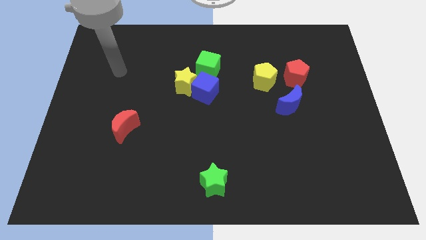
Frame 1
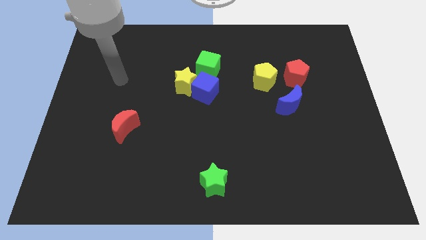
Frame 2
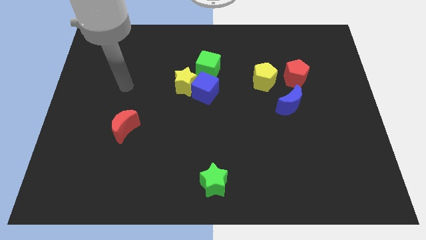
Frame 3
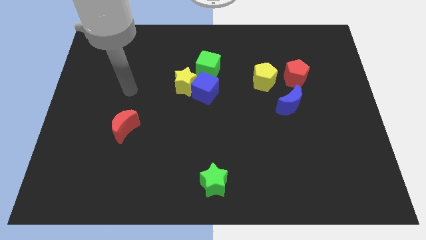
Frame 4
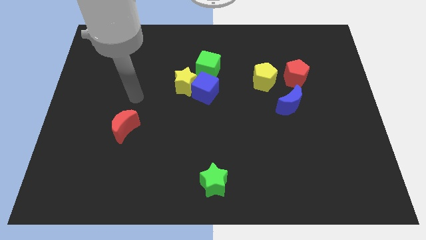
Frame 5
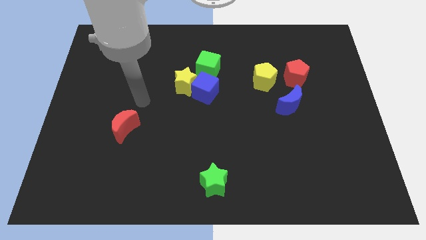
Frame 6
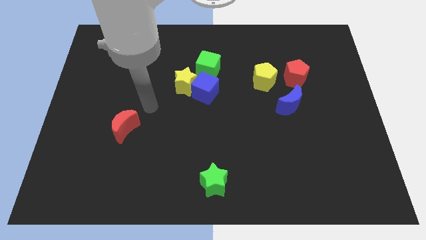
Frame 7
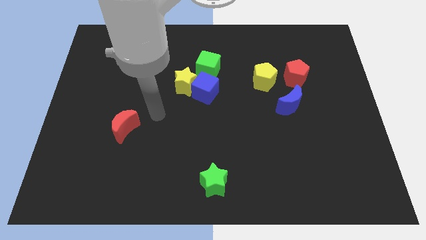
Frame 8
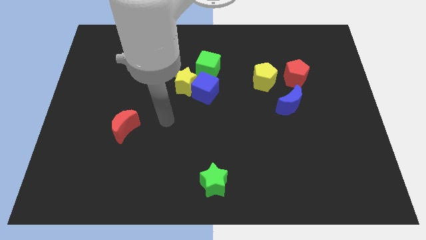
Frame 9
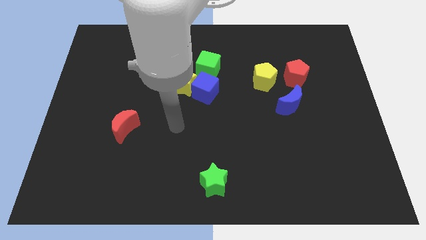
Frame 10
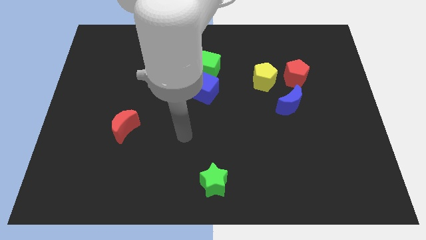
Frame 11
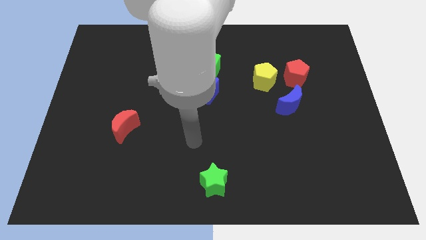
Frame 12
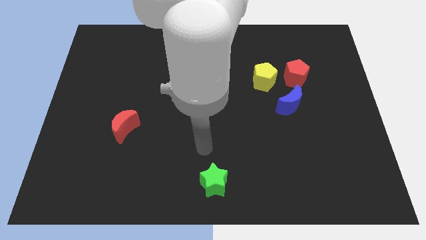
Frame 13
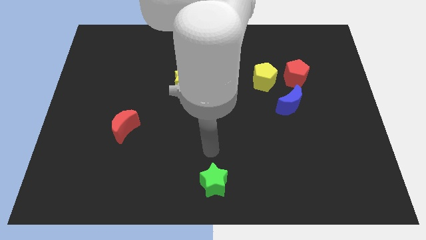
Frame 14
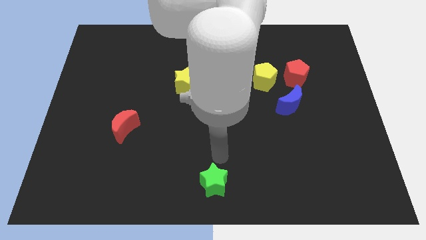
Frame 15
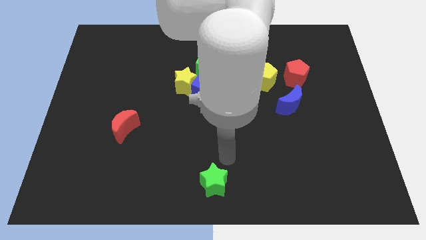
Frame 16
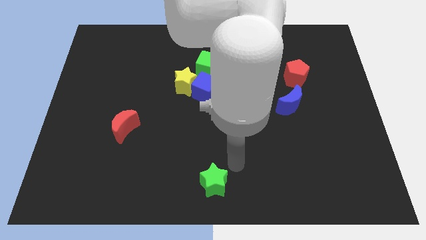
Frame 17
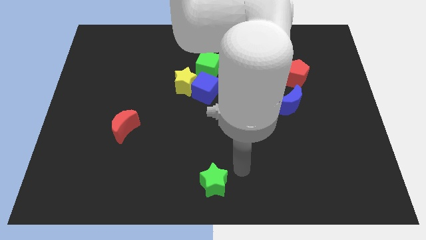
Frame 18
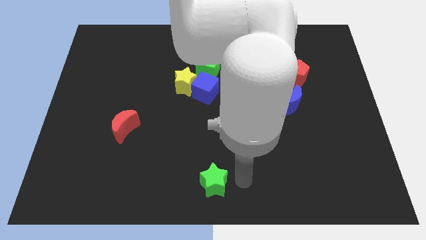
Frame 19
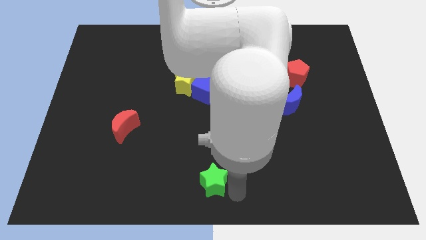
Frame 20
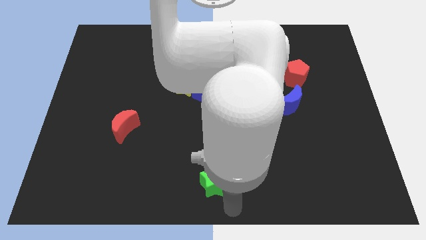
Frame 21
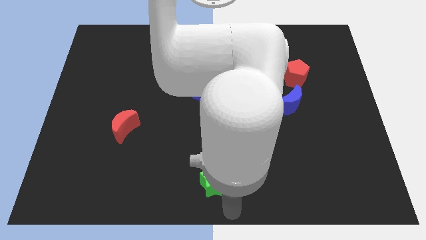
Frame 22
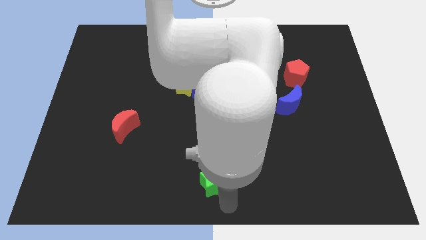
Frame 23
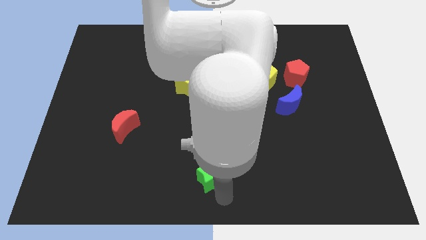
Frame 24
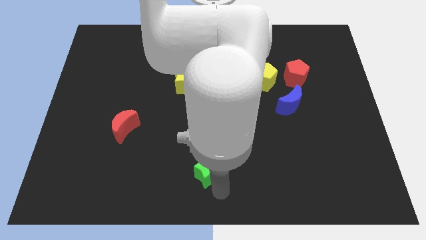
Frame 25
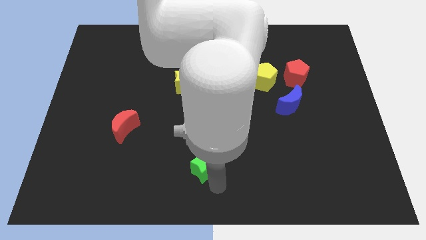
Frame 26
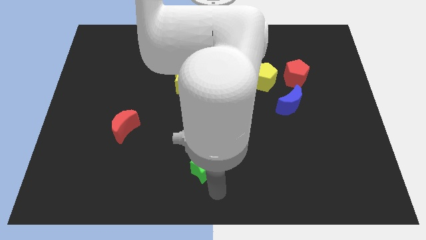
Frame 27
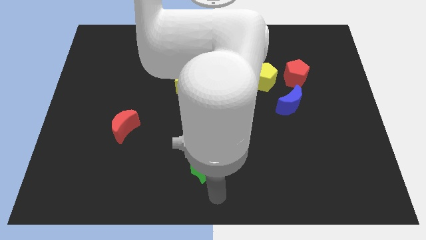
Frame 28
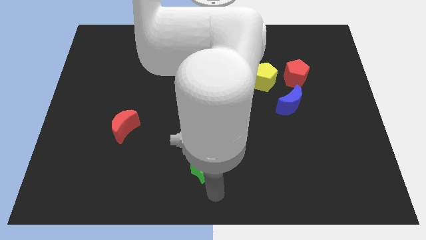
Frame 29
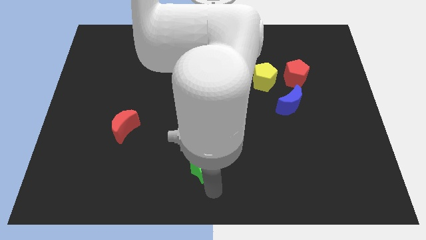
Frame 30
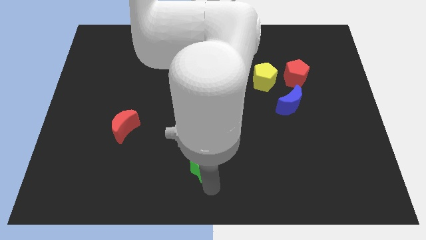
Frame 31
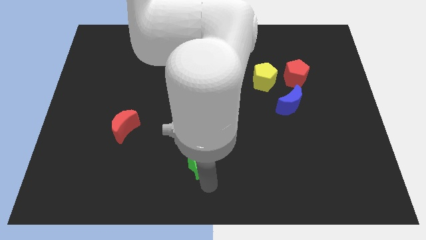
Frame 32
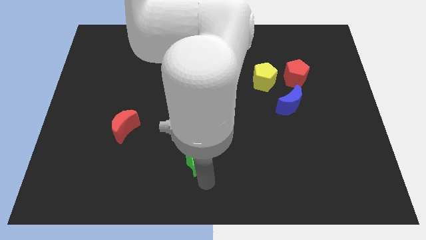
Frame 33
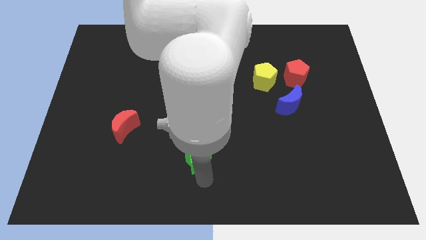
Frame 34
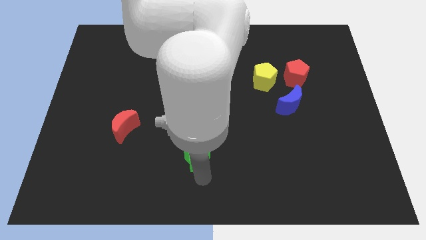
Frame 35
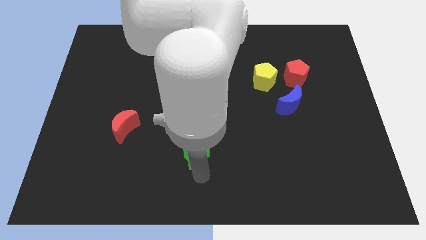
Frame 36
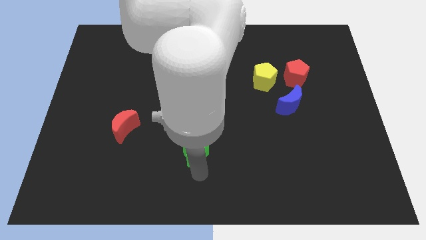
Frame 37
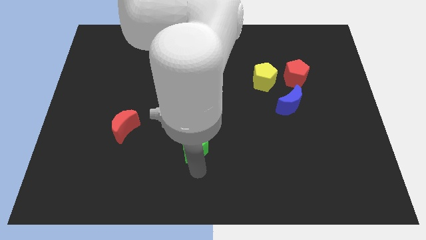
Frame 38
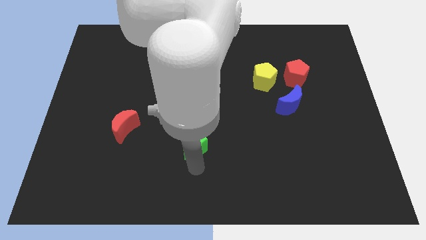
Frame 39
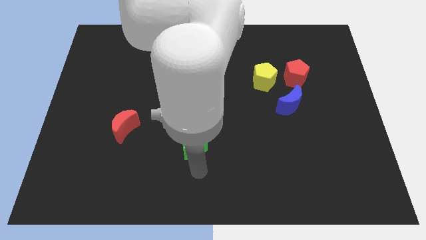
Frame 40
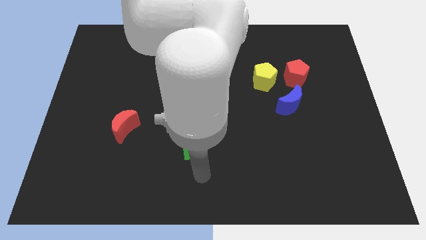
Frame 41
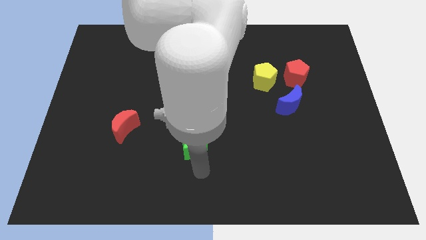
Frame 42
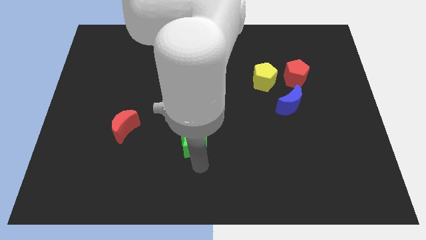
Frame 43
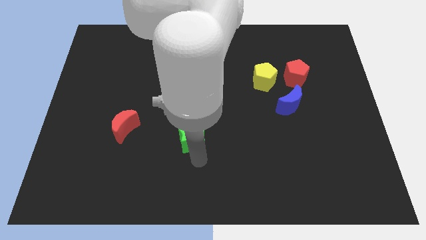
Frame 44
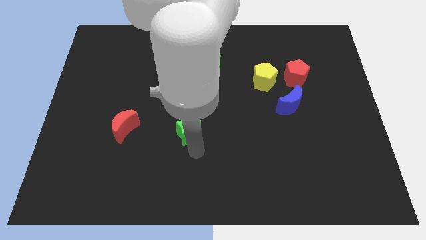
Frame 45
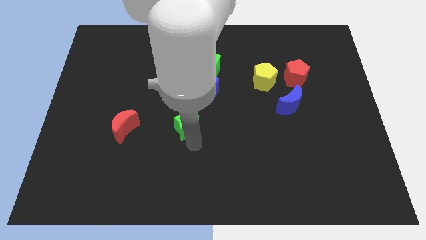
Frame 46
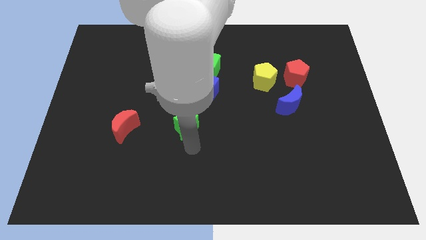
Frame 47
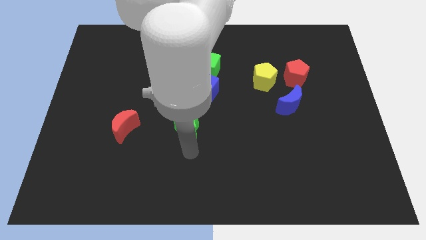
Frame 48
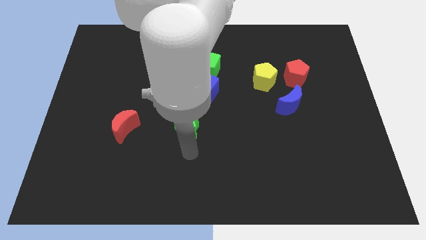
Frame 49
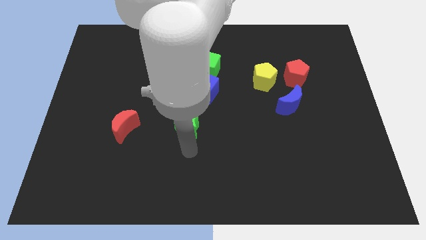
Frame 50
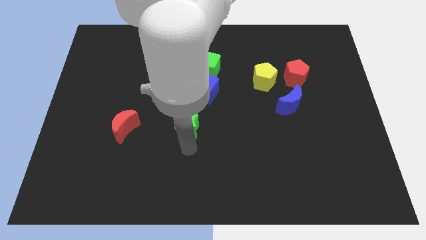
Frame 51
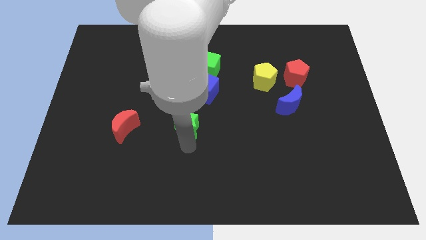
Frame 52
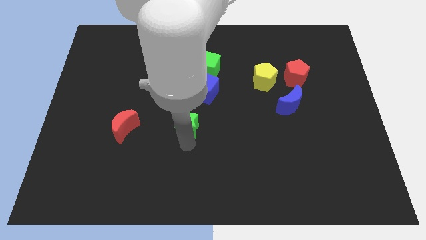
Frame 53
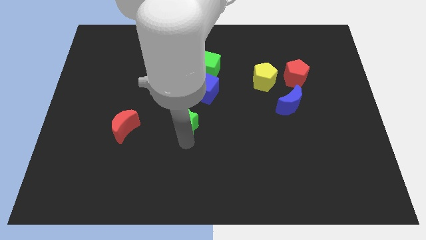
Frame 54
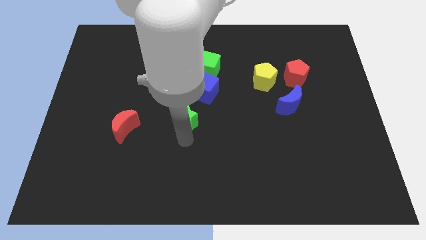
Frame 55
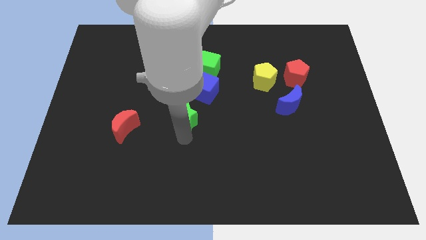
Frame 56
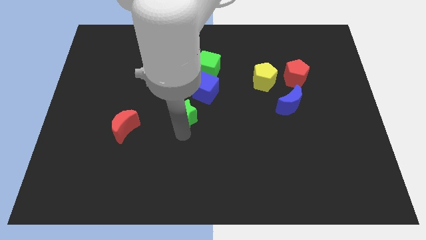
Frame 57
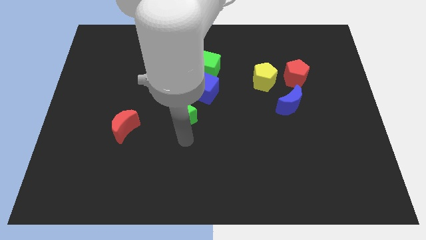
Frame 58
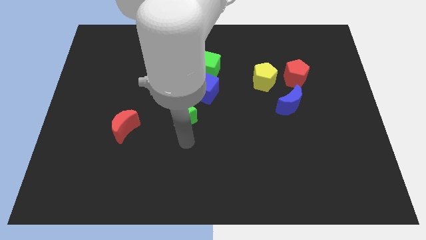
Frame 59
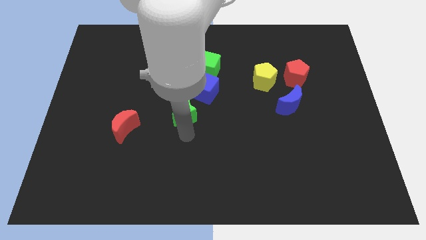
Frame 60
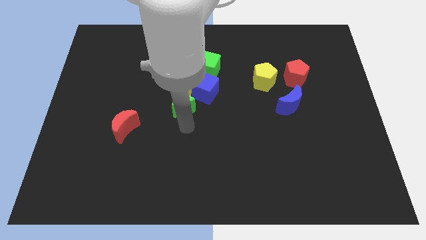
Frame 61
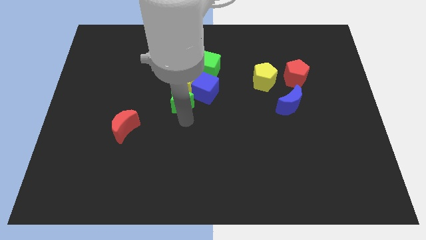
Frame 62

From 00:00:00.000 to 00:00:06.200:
put the green star to the yellow star

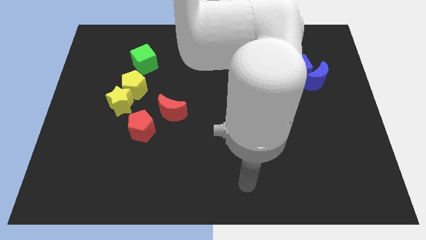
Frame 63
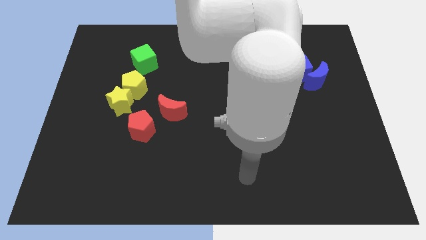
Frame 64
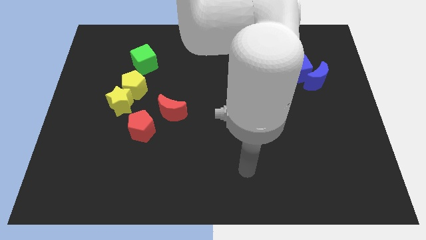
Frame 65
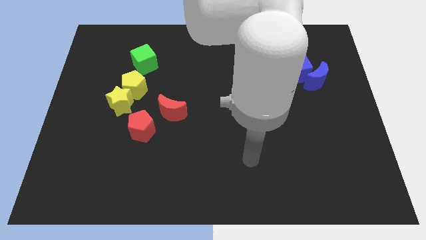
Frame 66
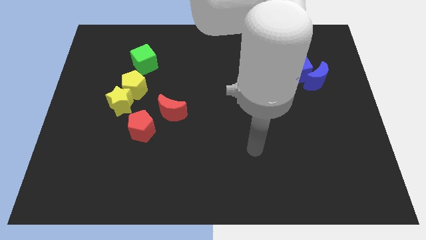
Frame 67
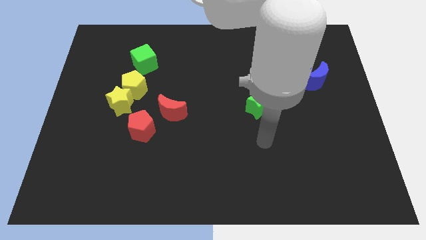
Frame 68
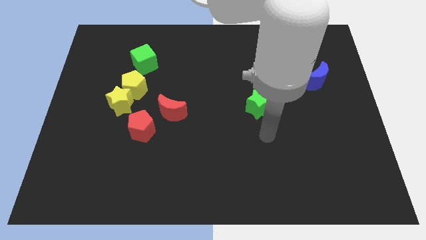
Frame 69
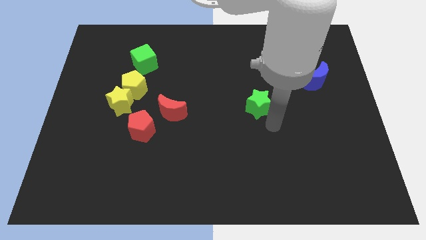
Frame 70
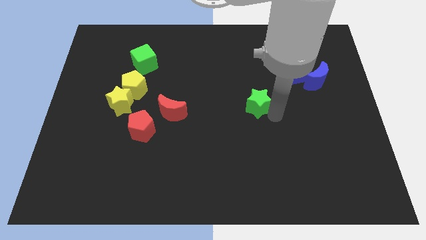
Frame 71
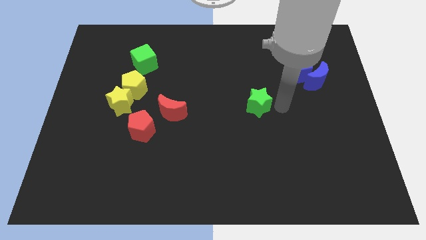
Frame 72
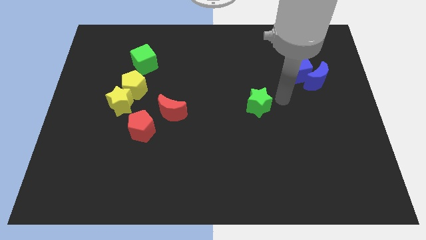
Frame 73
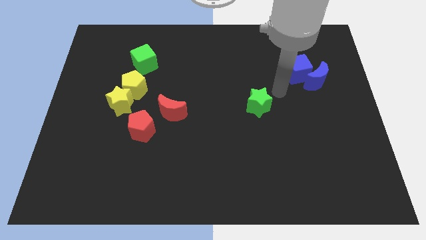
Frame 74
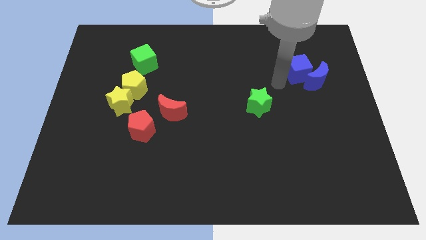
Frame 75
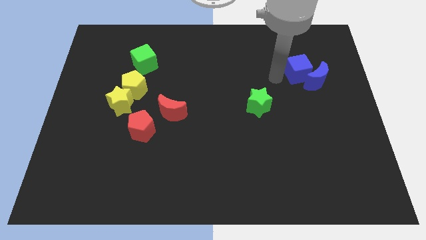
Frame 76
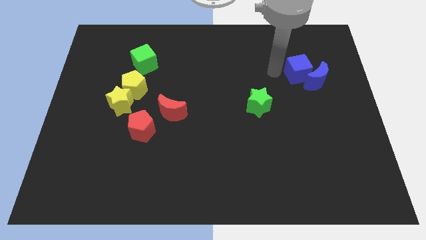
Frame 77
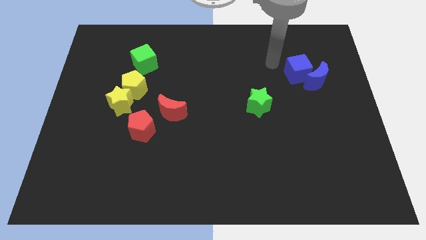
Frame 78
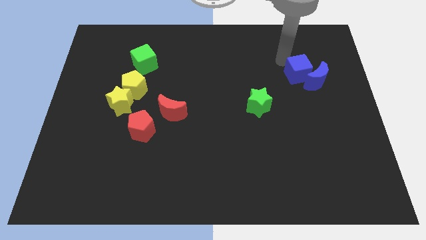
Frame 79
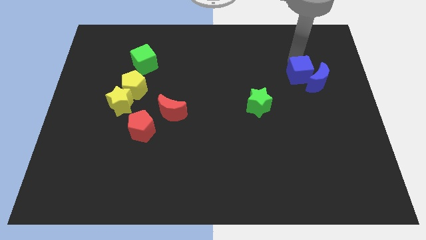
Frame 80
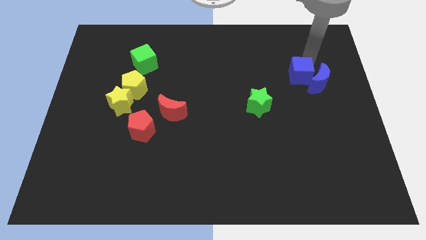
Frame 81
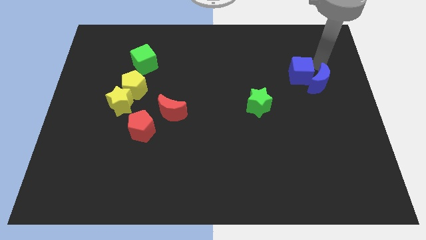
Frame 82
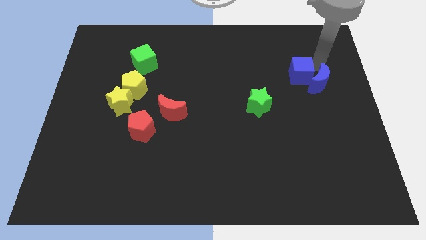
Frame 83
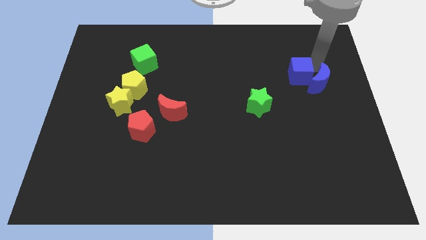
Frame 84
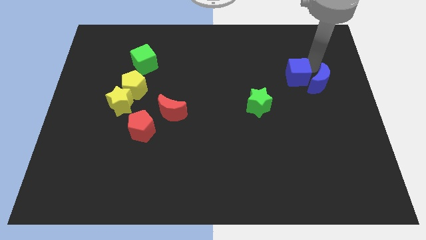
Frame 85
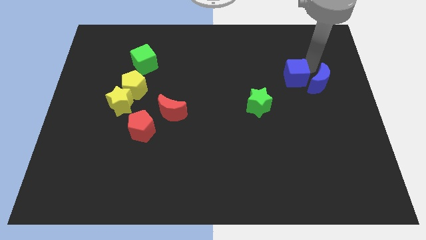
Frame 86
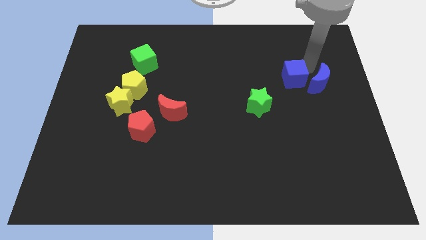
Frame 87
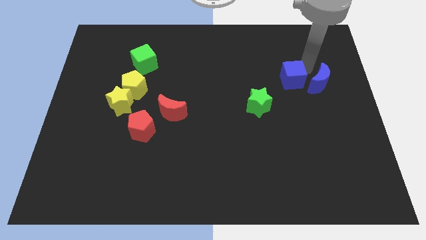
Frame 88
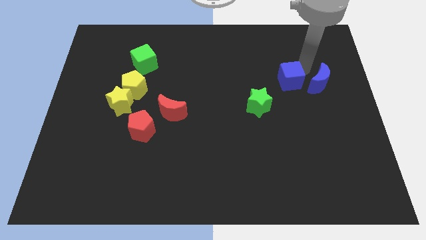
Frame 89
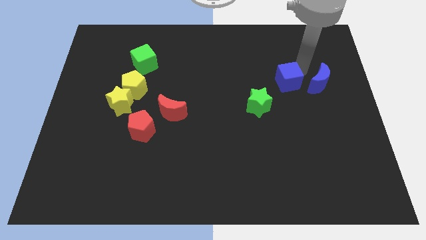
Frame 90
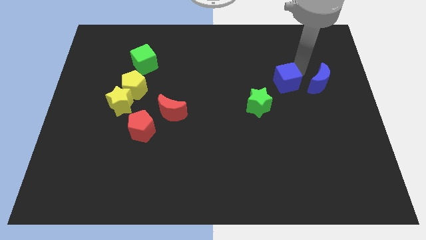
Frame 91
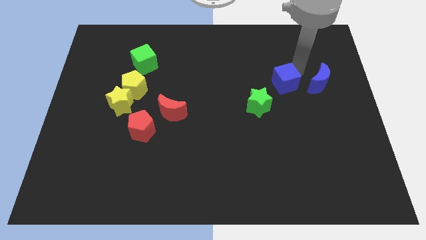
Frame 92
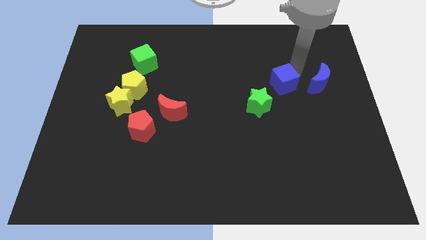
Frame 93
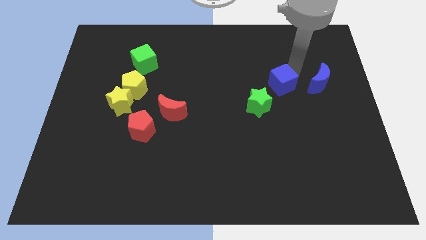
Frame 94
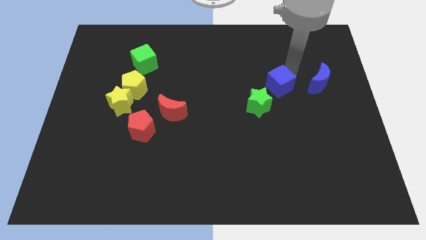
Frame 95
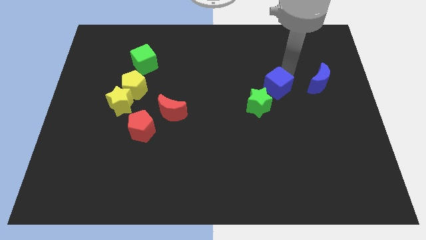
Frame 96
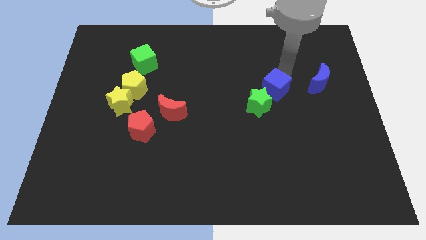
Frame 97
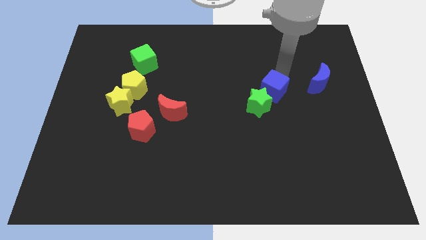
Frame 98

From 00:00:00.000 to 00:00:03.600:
move the blue cube to the green star
